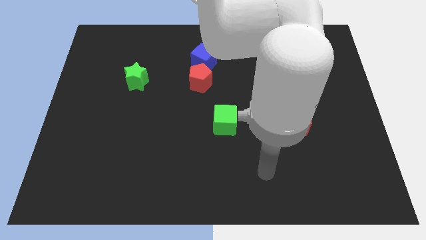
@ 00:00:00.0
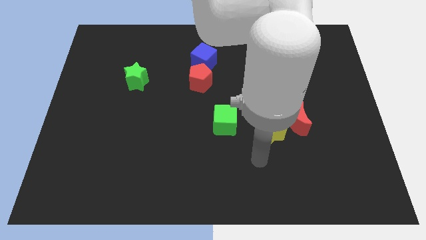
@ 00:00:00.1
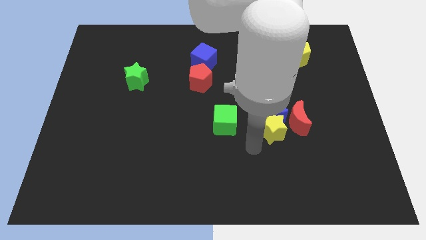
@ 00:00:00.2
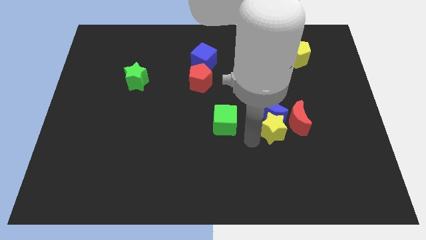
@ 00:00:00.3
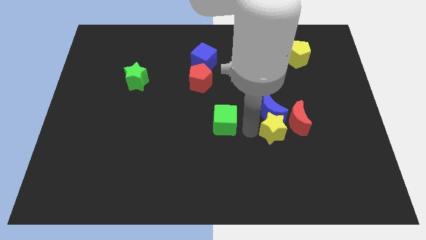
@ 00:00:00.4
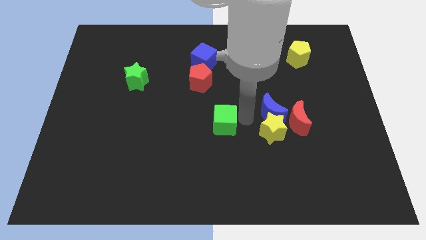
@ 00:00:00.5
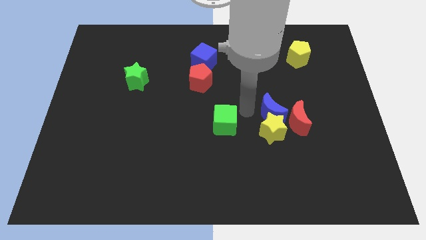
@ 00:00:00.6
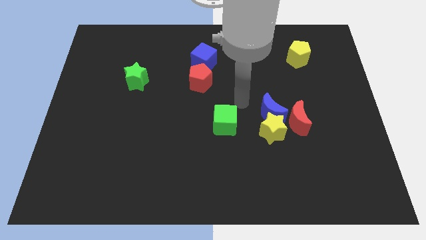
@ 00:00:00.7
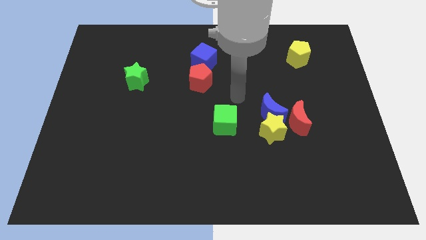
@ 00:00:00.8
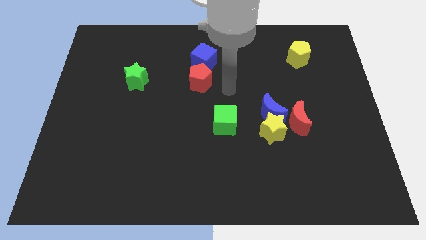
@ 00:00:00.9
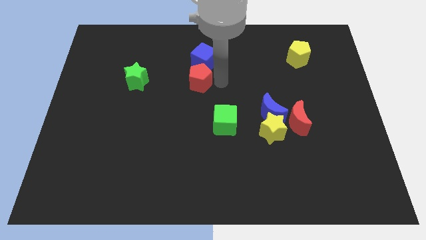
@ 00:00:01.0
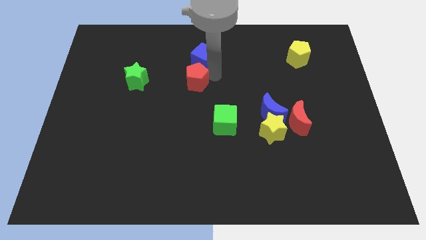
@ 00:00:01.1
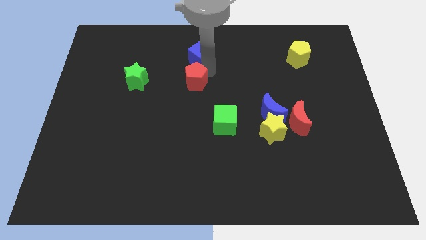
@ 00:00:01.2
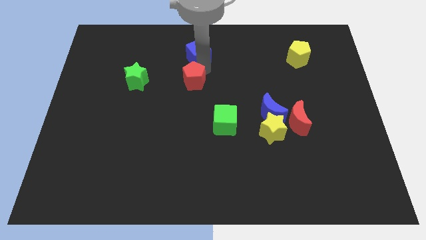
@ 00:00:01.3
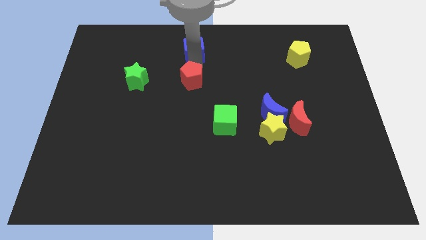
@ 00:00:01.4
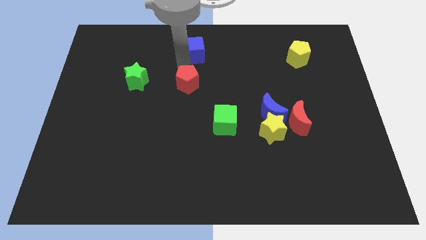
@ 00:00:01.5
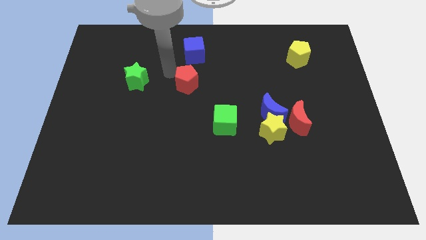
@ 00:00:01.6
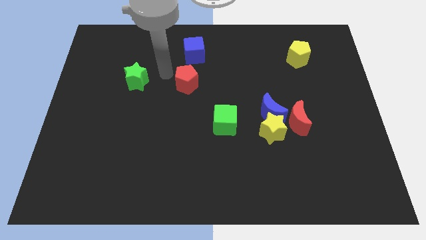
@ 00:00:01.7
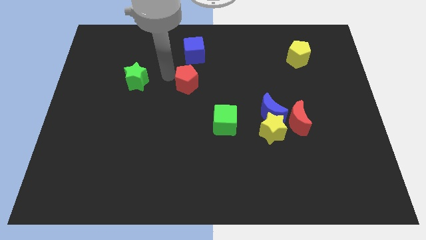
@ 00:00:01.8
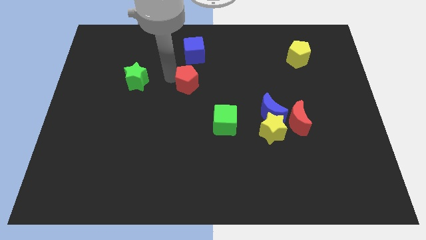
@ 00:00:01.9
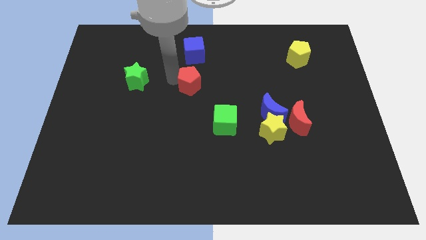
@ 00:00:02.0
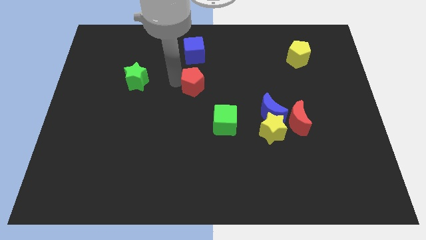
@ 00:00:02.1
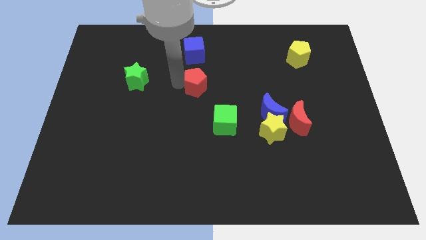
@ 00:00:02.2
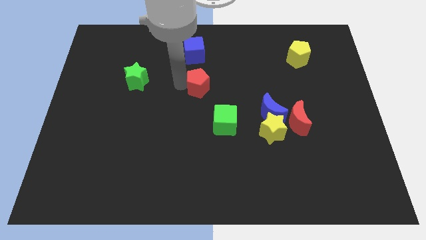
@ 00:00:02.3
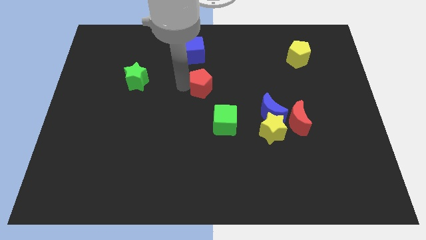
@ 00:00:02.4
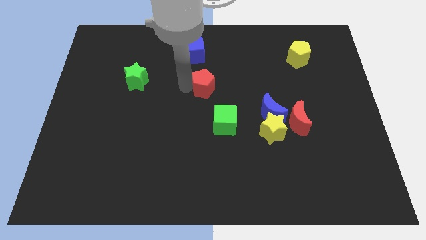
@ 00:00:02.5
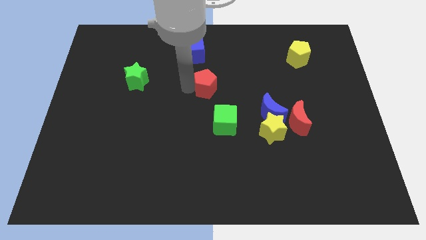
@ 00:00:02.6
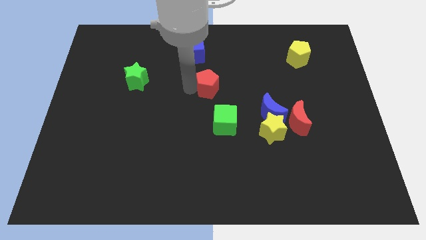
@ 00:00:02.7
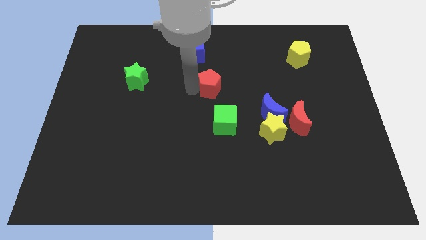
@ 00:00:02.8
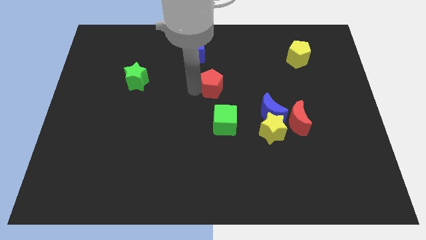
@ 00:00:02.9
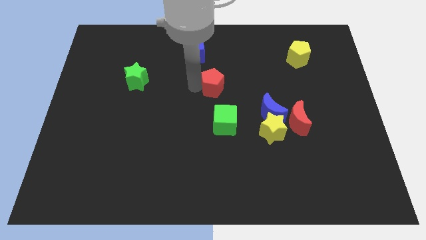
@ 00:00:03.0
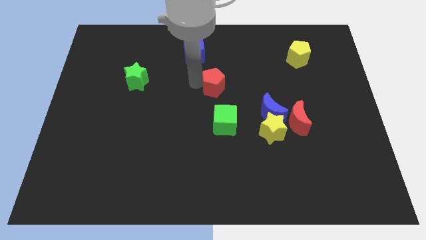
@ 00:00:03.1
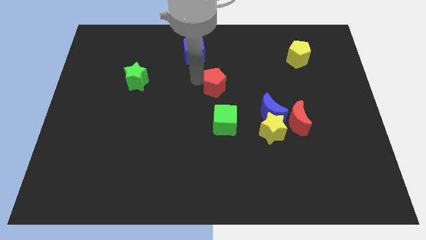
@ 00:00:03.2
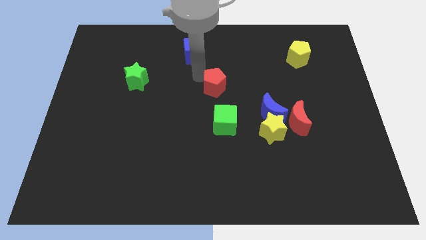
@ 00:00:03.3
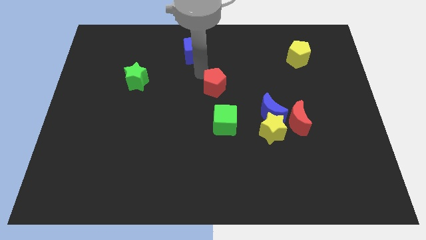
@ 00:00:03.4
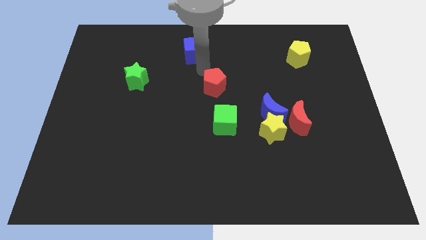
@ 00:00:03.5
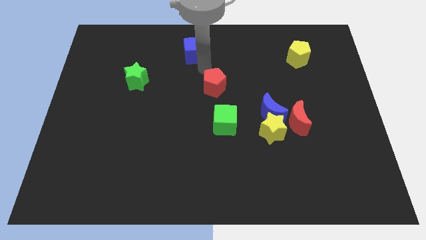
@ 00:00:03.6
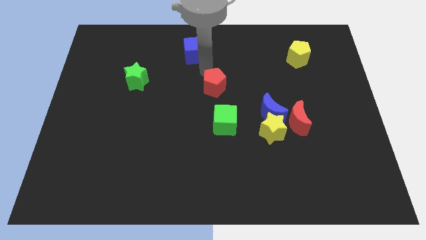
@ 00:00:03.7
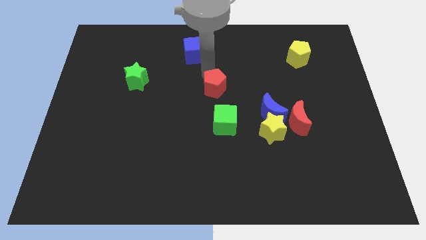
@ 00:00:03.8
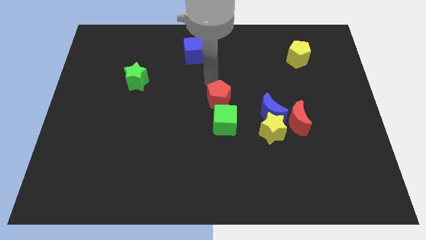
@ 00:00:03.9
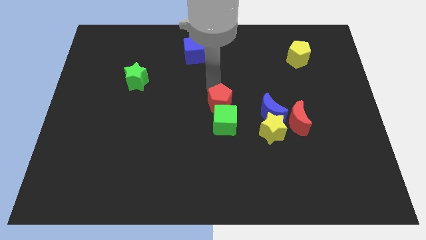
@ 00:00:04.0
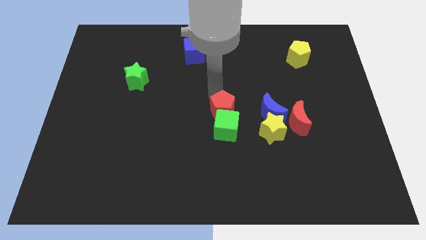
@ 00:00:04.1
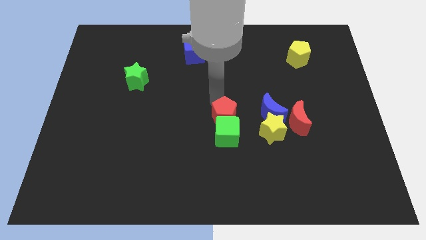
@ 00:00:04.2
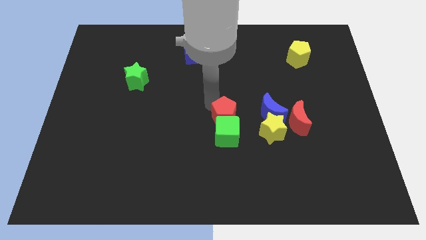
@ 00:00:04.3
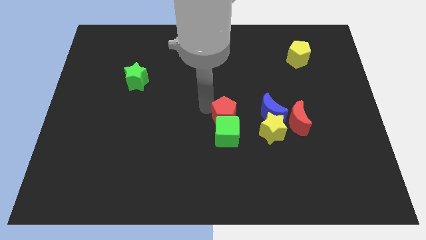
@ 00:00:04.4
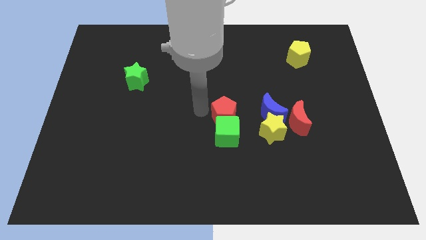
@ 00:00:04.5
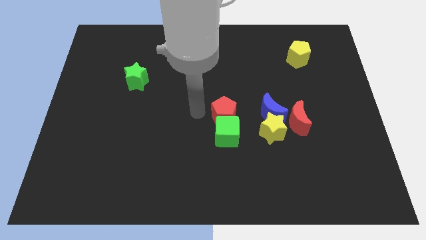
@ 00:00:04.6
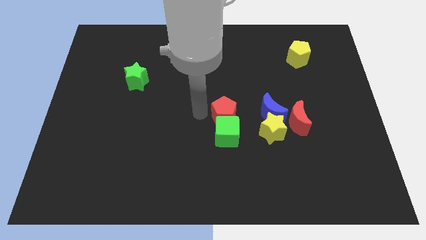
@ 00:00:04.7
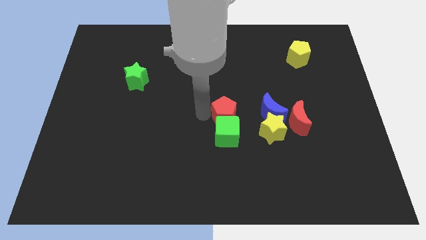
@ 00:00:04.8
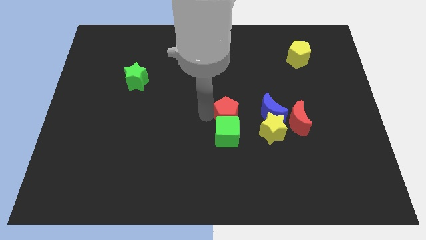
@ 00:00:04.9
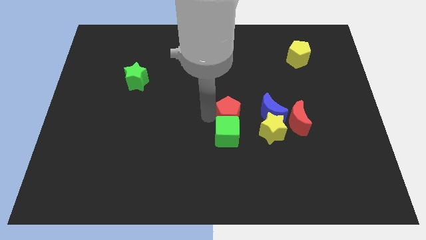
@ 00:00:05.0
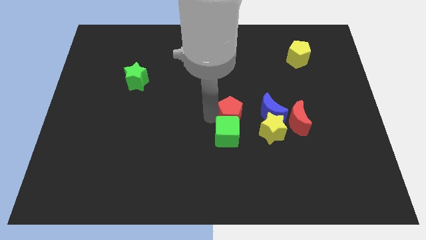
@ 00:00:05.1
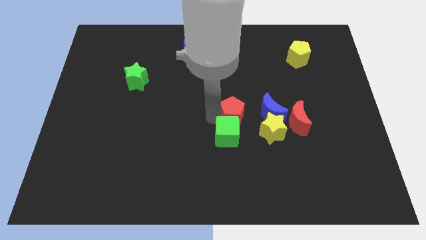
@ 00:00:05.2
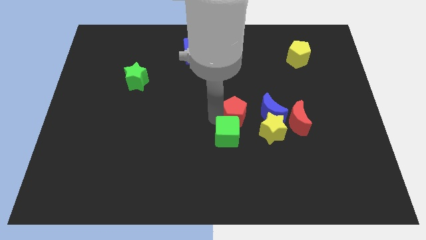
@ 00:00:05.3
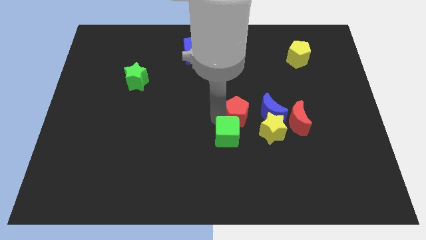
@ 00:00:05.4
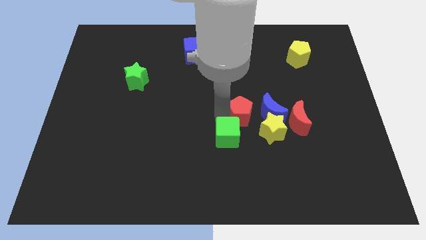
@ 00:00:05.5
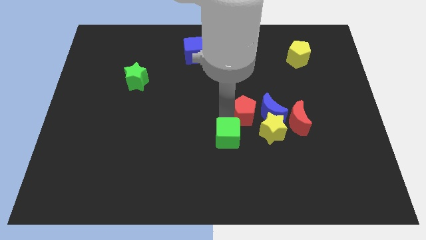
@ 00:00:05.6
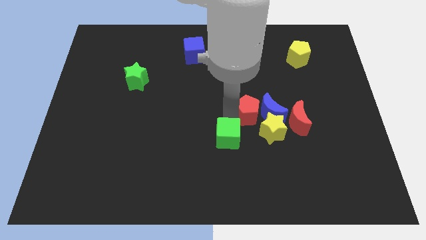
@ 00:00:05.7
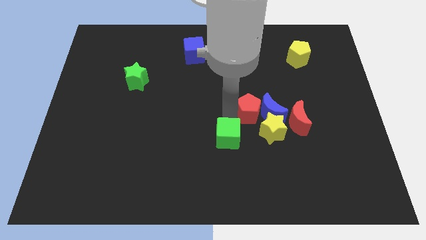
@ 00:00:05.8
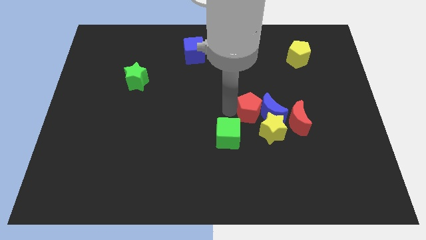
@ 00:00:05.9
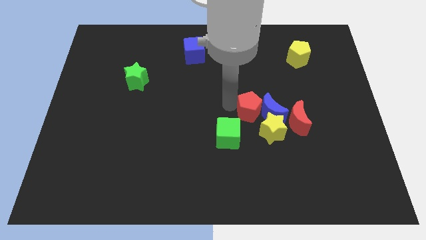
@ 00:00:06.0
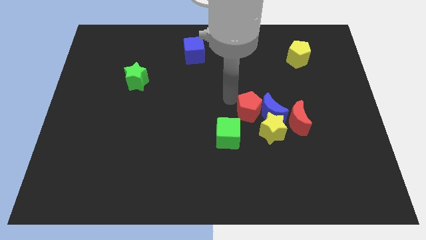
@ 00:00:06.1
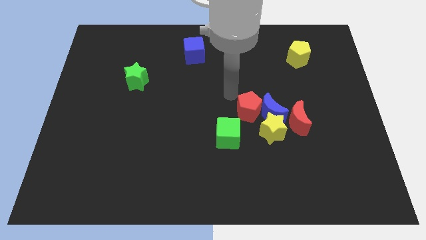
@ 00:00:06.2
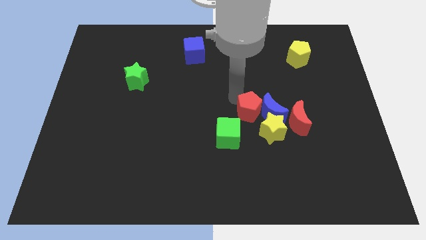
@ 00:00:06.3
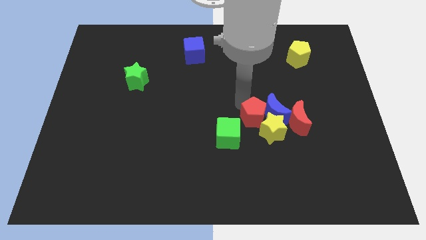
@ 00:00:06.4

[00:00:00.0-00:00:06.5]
slide the red pentagon to the yellow star

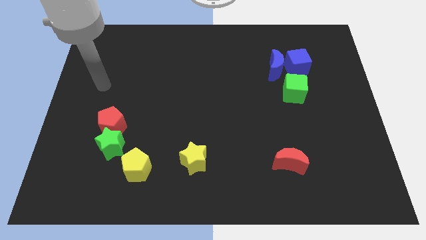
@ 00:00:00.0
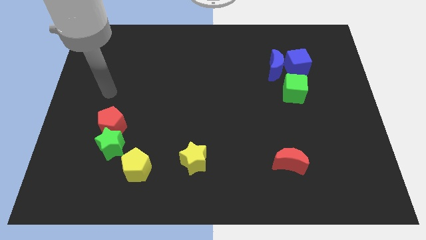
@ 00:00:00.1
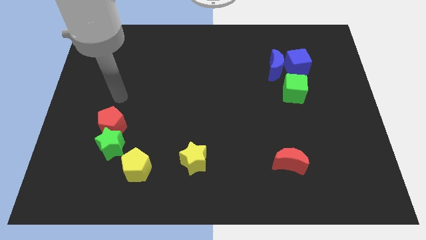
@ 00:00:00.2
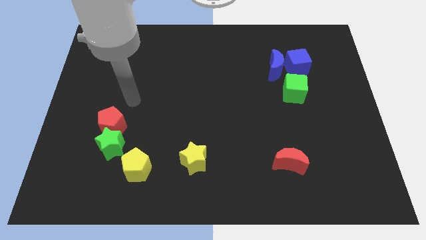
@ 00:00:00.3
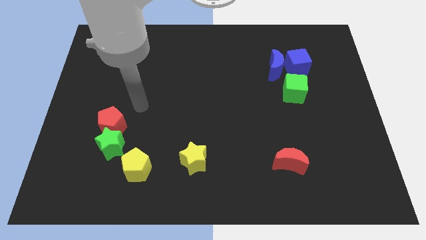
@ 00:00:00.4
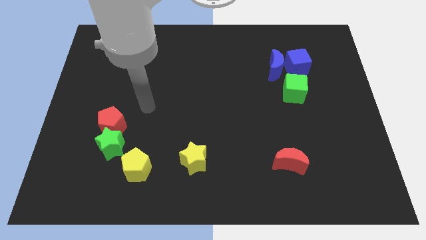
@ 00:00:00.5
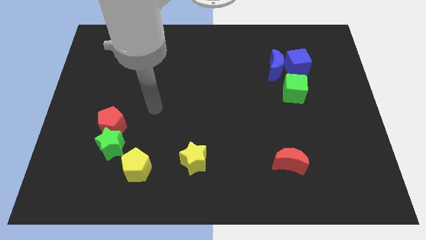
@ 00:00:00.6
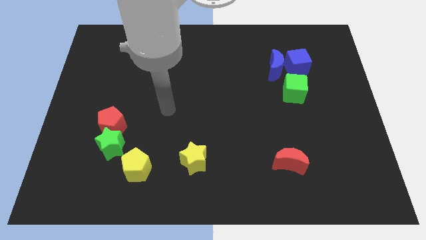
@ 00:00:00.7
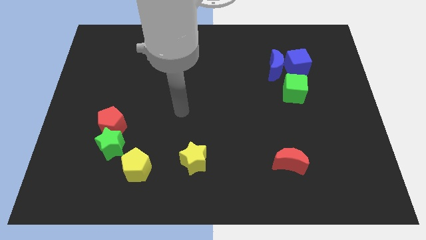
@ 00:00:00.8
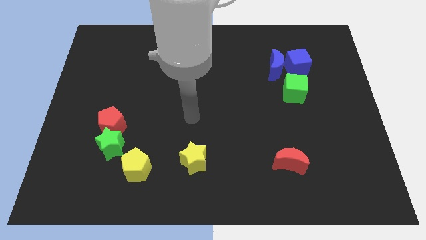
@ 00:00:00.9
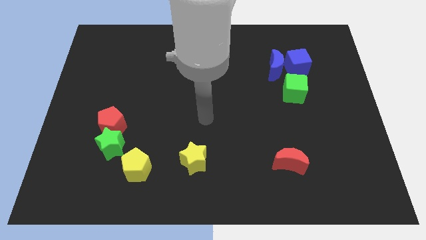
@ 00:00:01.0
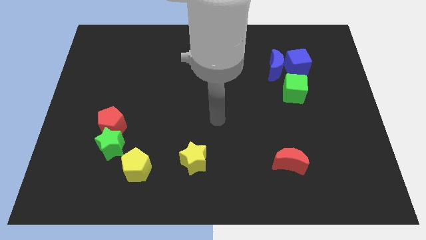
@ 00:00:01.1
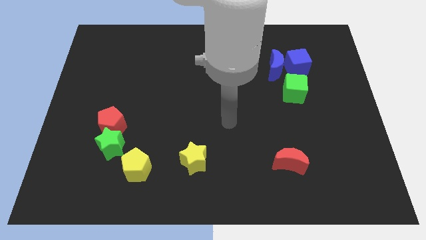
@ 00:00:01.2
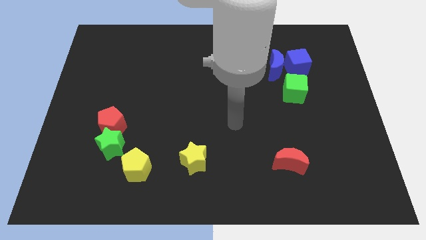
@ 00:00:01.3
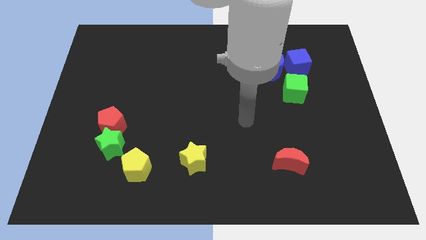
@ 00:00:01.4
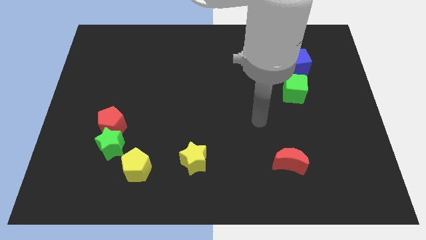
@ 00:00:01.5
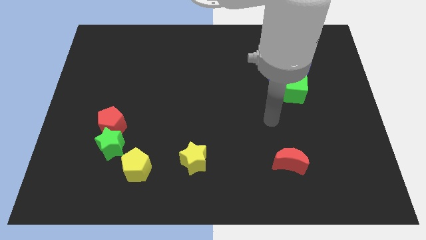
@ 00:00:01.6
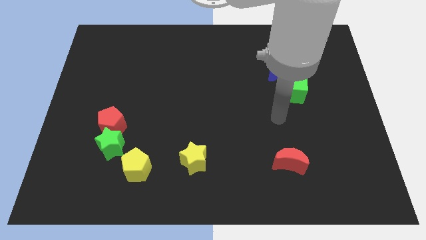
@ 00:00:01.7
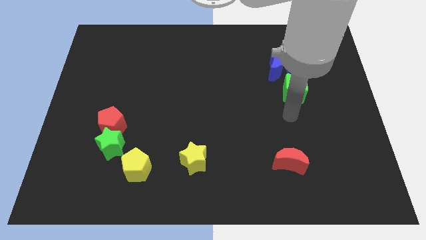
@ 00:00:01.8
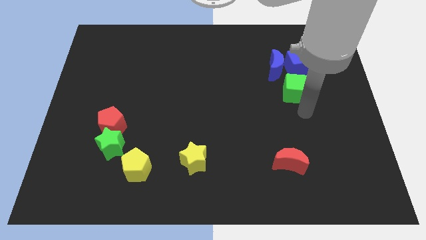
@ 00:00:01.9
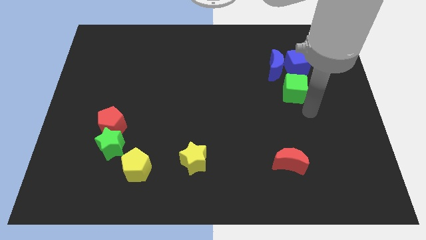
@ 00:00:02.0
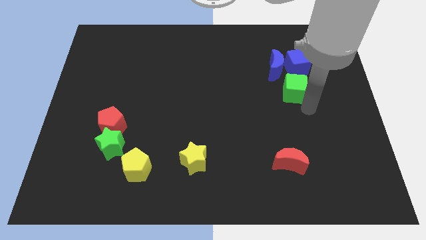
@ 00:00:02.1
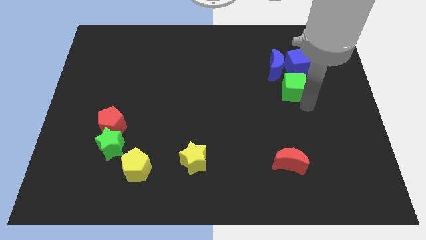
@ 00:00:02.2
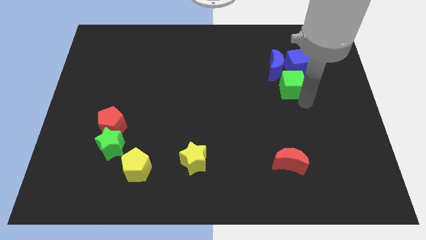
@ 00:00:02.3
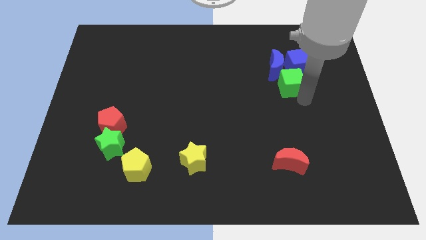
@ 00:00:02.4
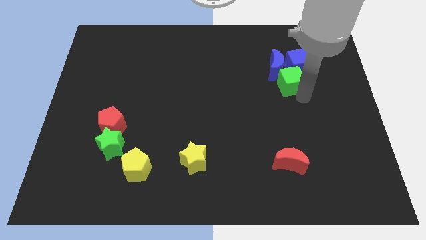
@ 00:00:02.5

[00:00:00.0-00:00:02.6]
slide the green cube next to the blue moon
